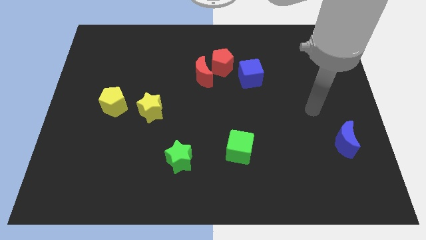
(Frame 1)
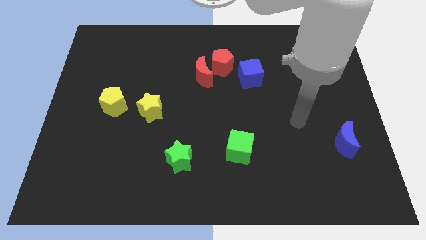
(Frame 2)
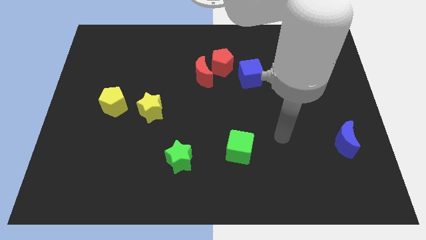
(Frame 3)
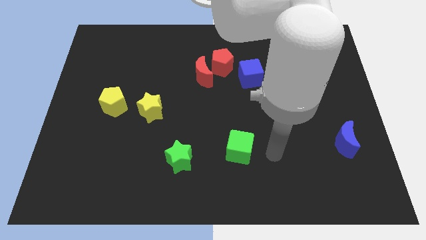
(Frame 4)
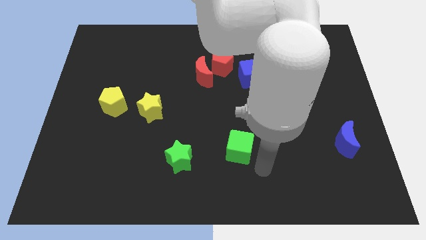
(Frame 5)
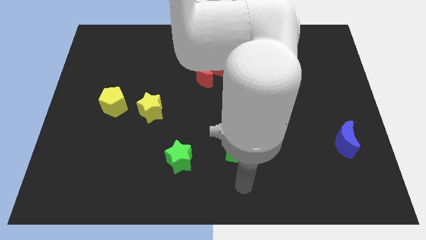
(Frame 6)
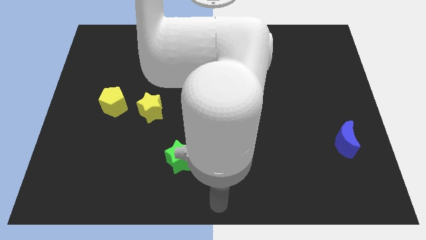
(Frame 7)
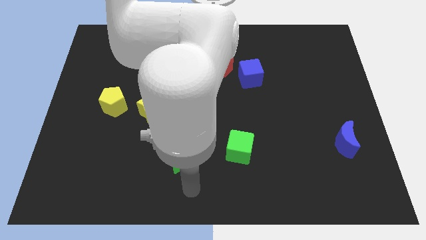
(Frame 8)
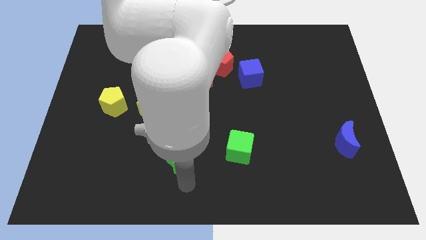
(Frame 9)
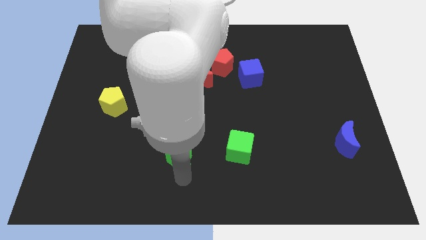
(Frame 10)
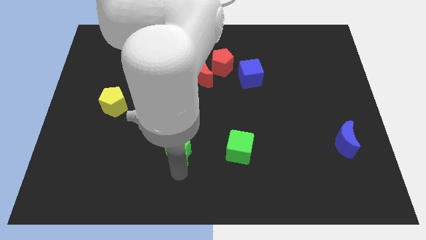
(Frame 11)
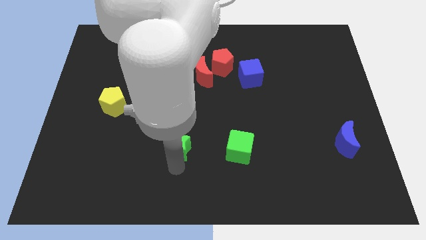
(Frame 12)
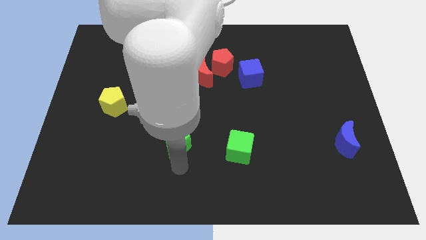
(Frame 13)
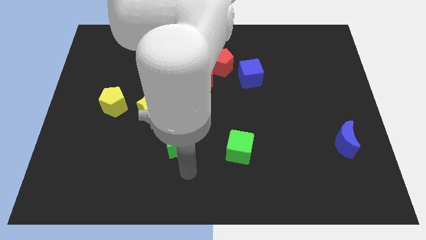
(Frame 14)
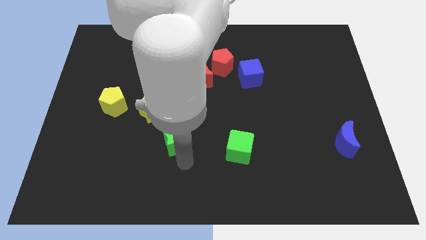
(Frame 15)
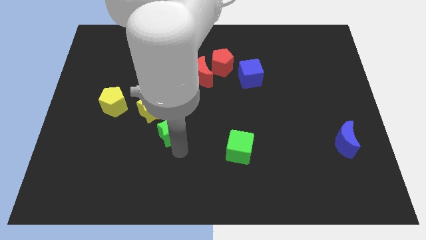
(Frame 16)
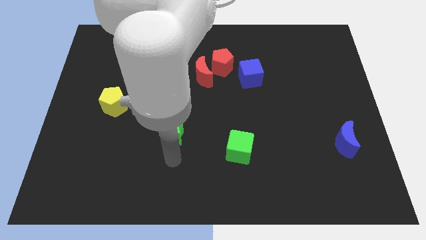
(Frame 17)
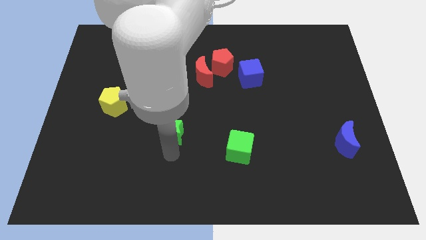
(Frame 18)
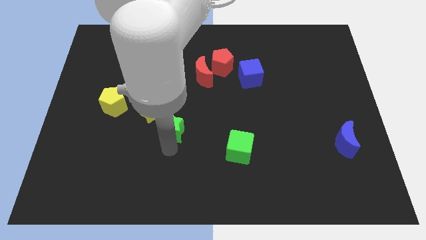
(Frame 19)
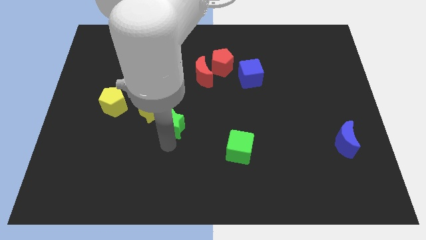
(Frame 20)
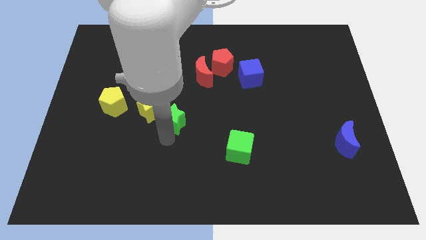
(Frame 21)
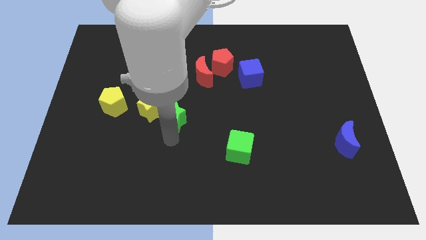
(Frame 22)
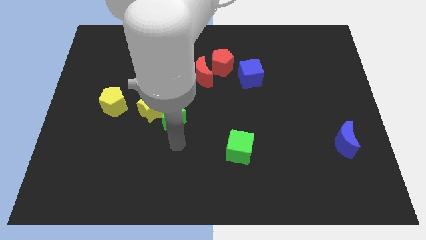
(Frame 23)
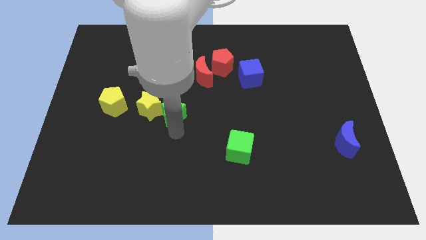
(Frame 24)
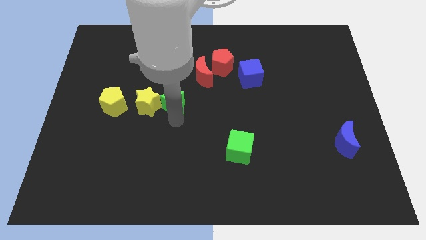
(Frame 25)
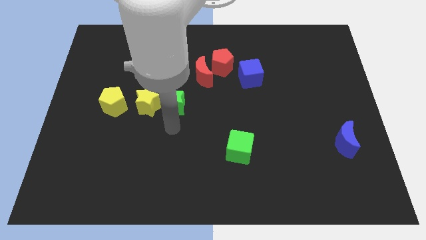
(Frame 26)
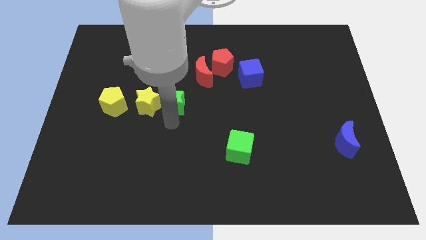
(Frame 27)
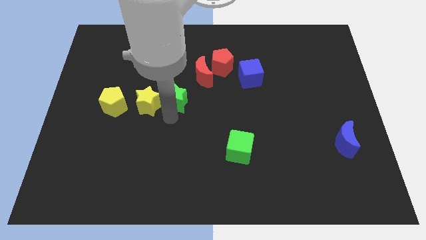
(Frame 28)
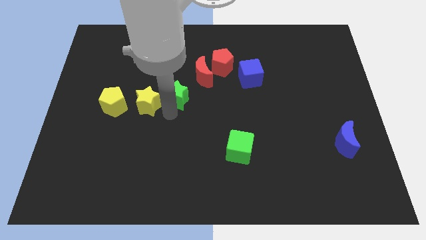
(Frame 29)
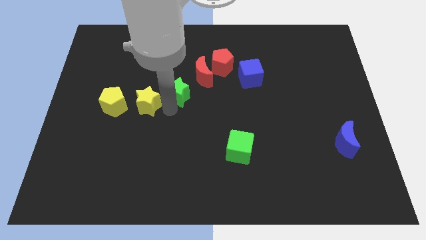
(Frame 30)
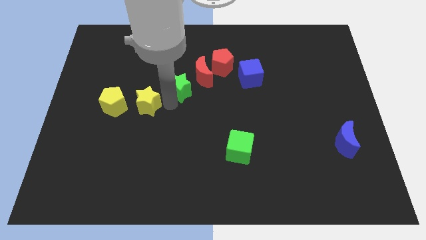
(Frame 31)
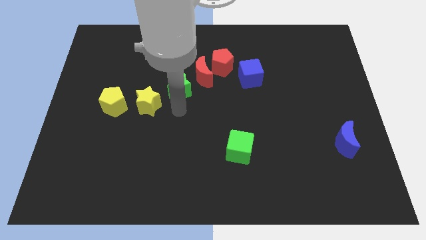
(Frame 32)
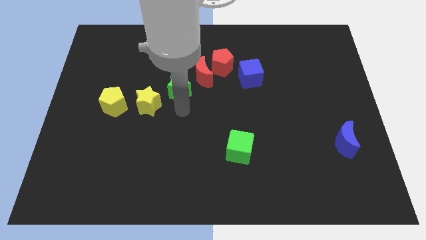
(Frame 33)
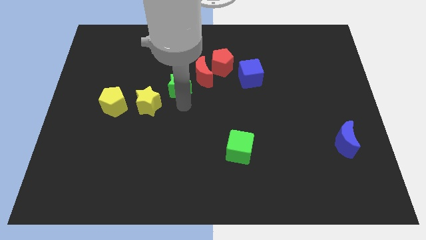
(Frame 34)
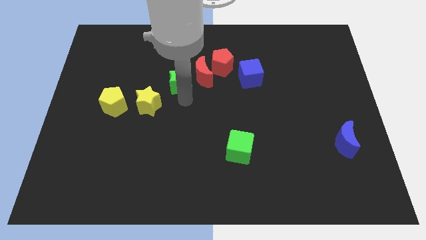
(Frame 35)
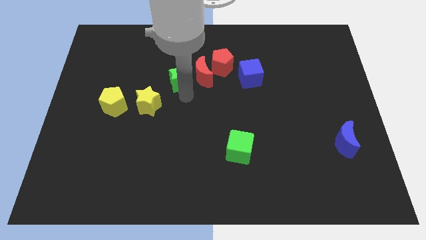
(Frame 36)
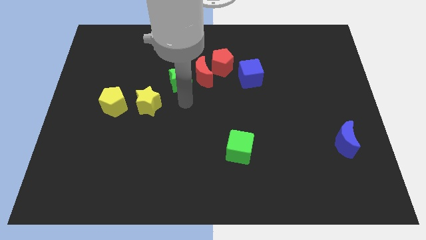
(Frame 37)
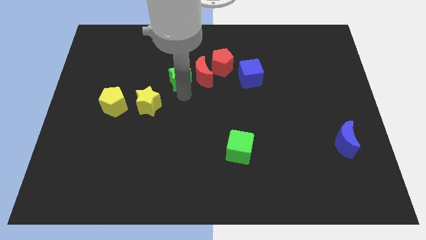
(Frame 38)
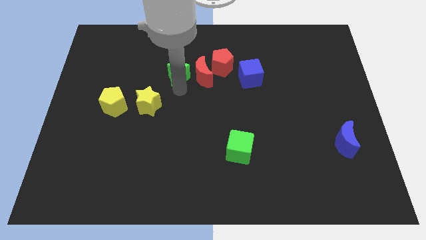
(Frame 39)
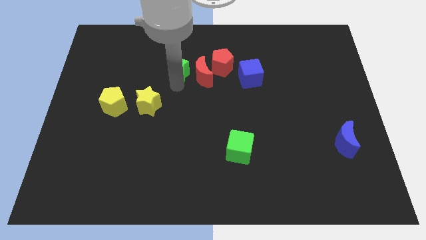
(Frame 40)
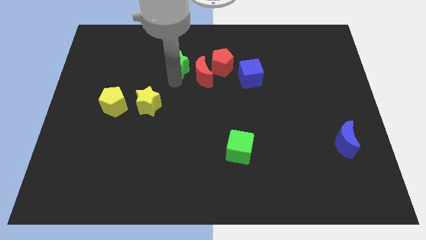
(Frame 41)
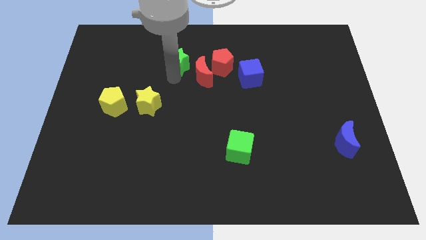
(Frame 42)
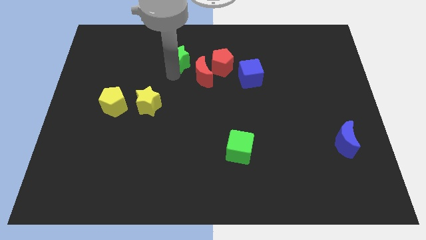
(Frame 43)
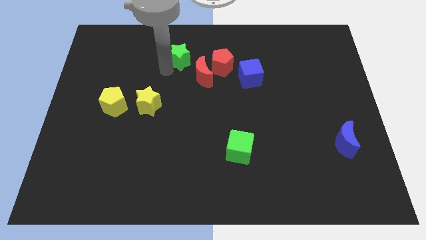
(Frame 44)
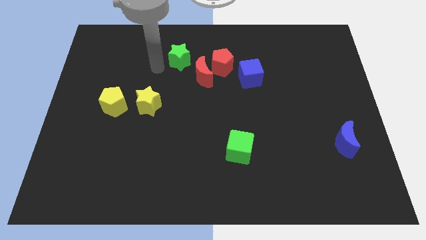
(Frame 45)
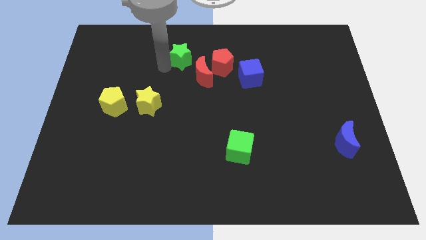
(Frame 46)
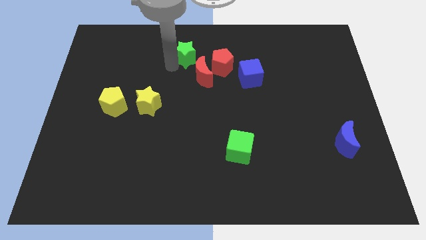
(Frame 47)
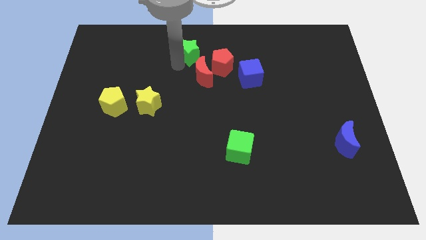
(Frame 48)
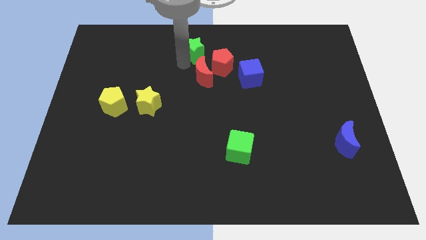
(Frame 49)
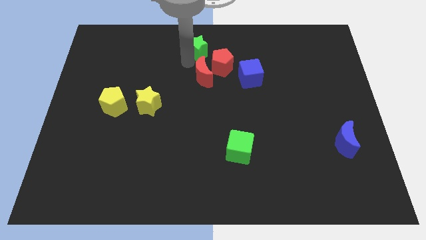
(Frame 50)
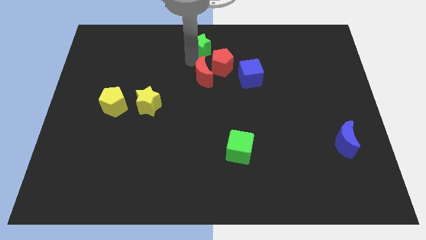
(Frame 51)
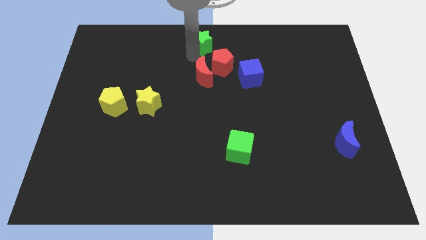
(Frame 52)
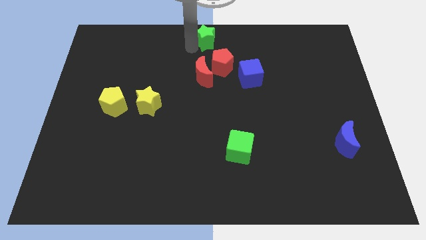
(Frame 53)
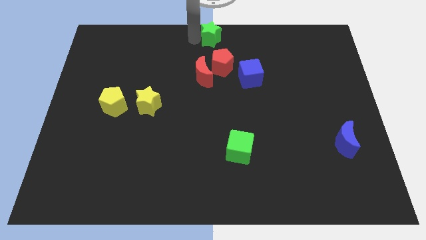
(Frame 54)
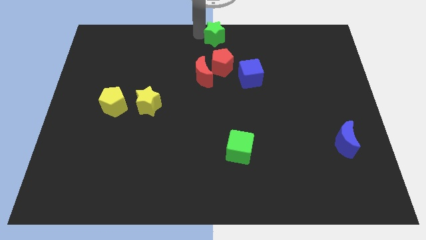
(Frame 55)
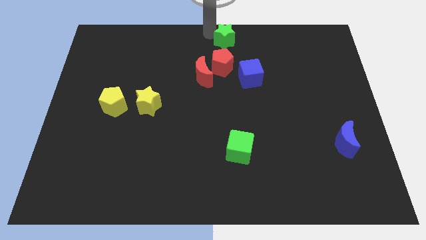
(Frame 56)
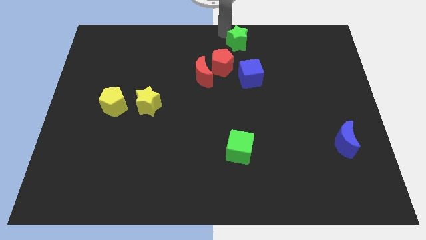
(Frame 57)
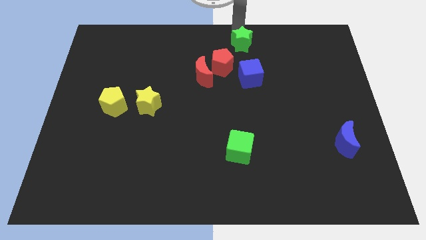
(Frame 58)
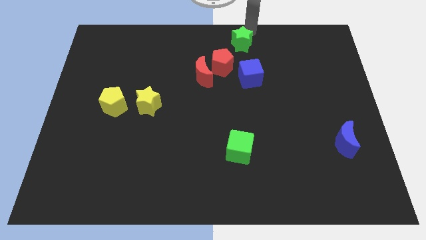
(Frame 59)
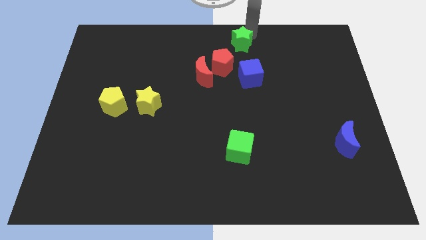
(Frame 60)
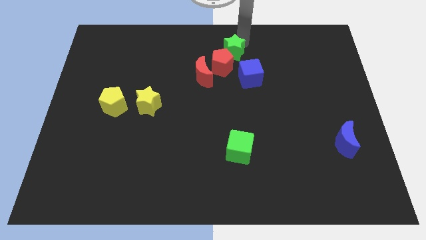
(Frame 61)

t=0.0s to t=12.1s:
slide the green star to the top right side of the red moon

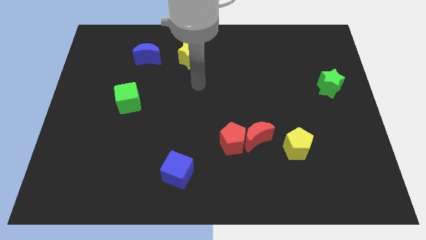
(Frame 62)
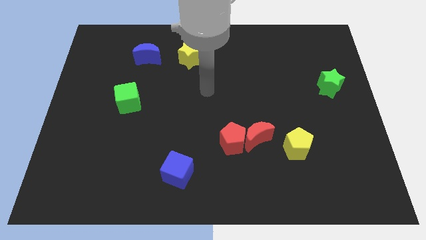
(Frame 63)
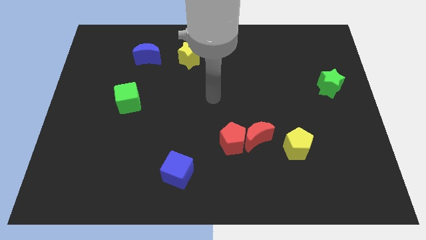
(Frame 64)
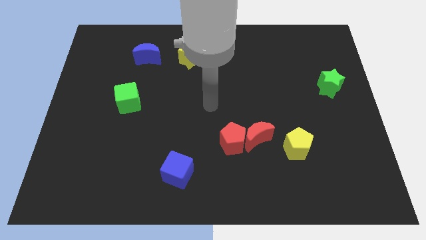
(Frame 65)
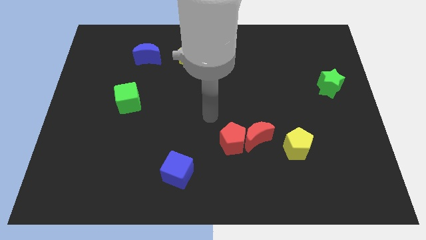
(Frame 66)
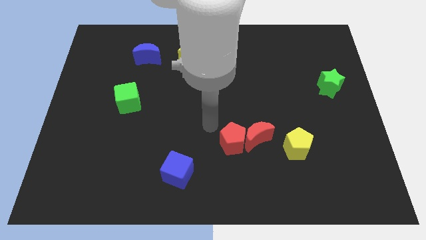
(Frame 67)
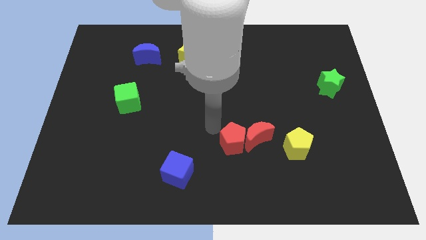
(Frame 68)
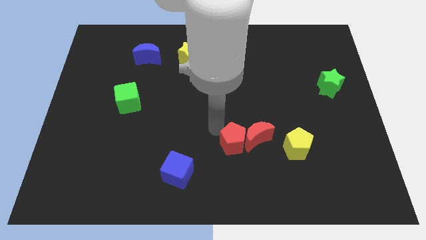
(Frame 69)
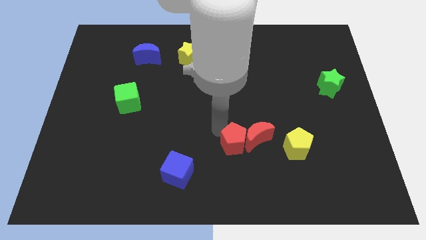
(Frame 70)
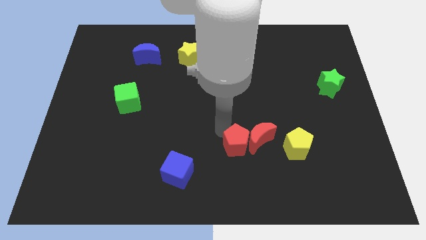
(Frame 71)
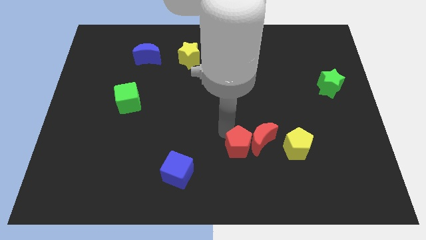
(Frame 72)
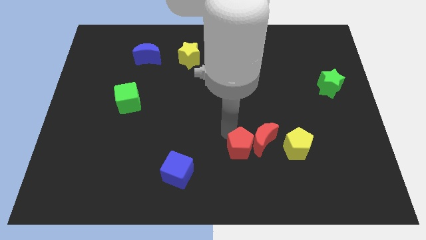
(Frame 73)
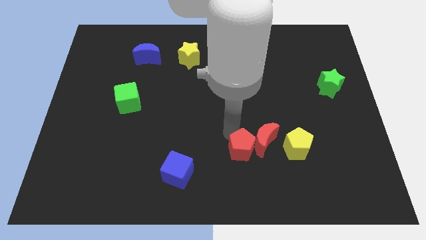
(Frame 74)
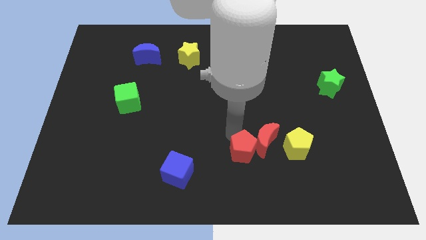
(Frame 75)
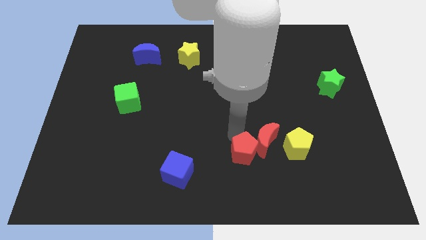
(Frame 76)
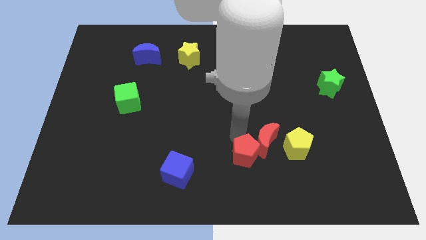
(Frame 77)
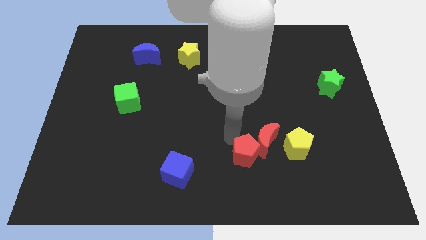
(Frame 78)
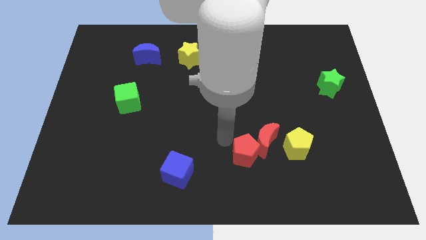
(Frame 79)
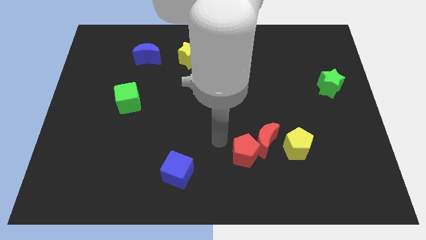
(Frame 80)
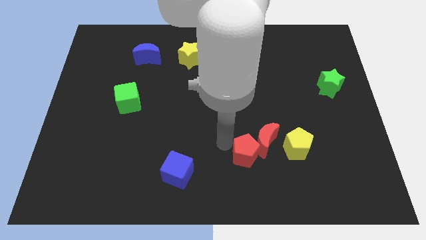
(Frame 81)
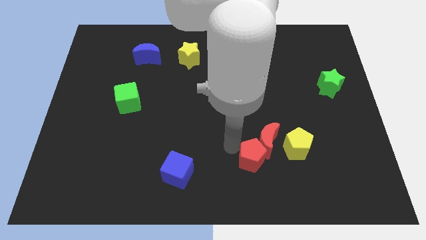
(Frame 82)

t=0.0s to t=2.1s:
put the red pentagon to the bottom left side of the yellow pentagon

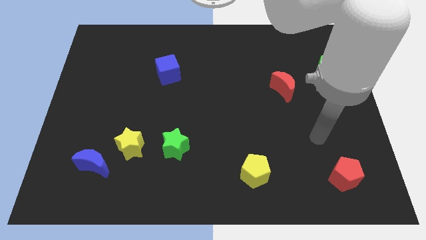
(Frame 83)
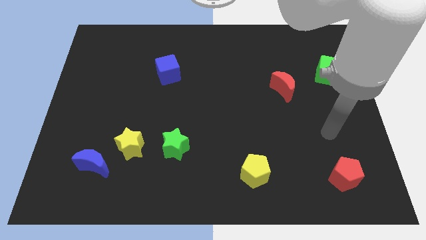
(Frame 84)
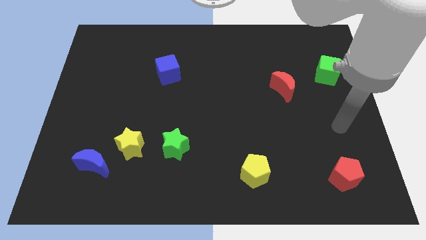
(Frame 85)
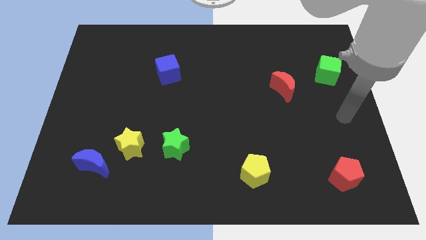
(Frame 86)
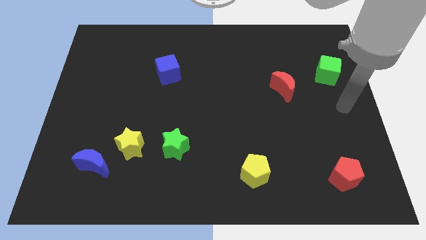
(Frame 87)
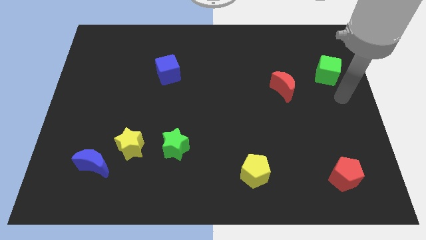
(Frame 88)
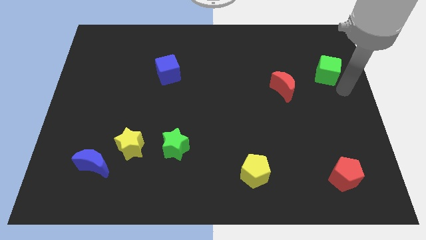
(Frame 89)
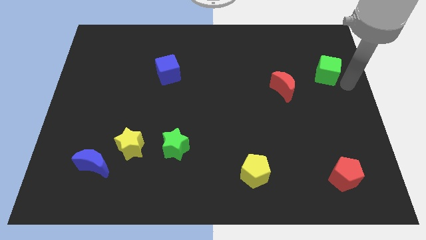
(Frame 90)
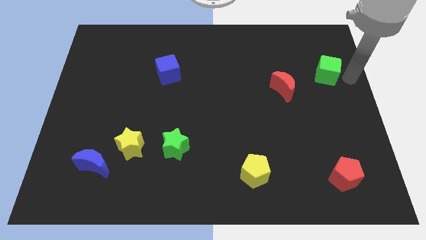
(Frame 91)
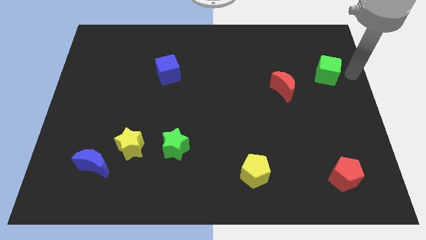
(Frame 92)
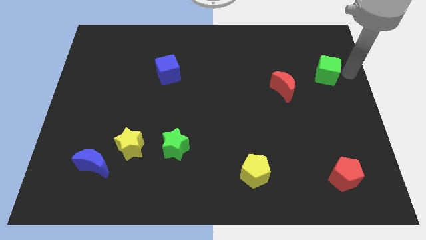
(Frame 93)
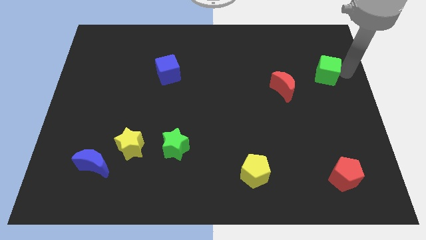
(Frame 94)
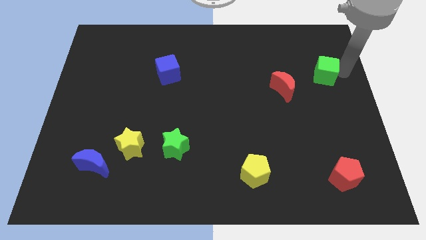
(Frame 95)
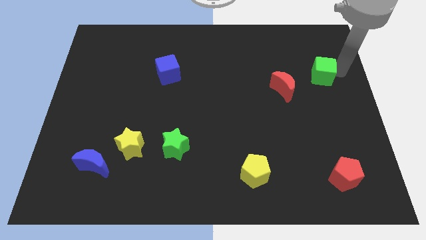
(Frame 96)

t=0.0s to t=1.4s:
push the green cube diagonally up and to the right of the red moon
